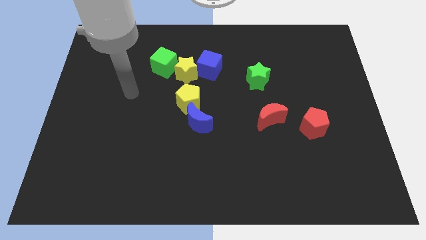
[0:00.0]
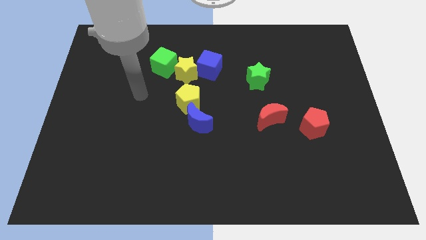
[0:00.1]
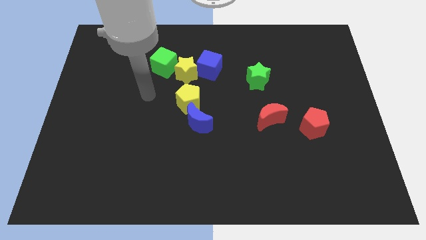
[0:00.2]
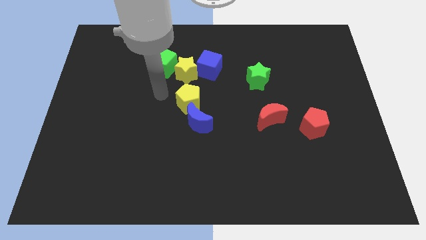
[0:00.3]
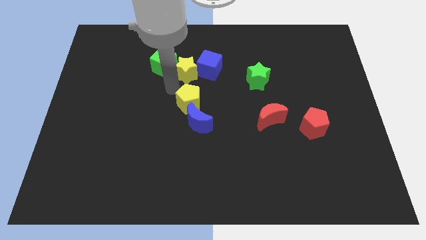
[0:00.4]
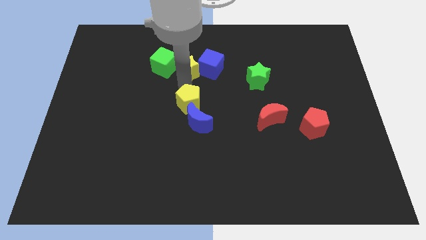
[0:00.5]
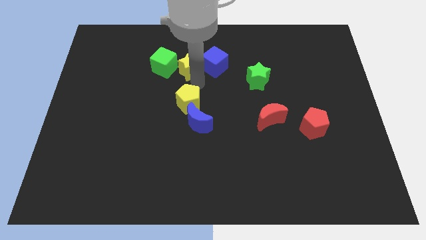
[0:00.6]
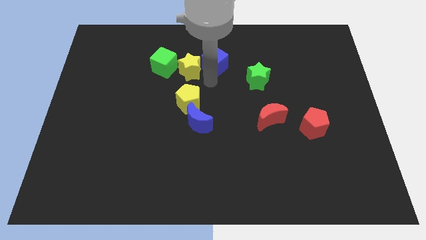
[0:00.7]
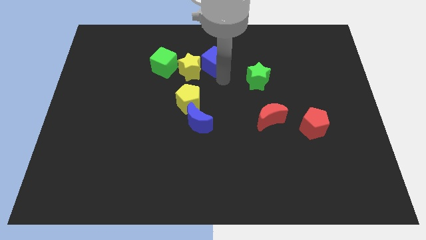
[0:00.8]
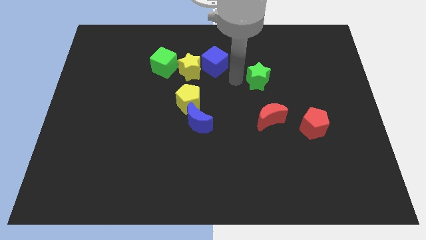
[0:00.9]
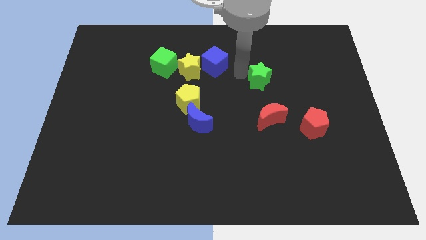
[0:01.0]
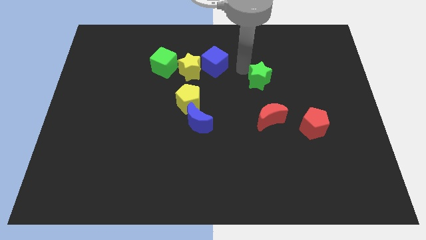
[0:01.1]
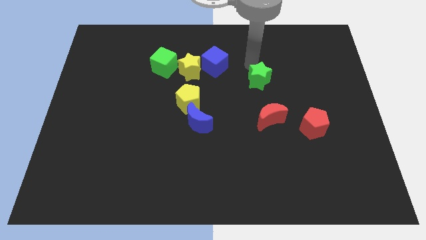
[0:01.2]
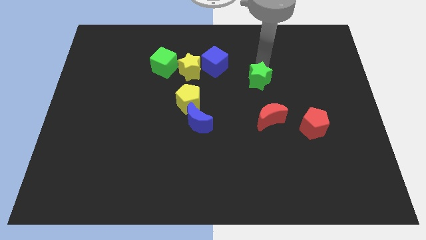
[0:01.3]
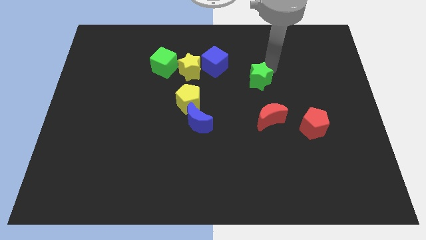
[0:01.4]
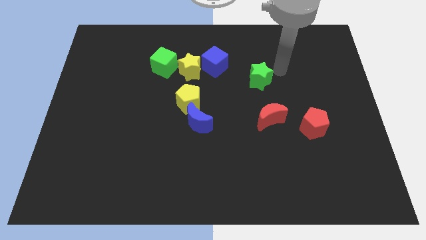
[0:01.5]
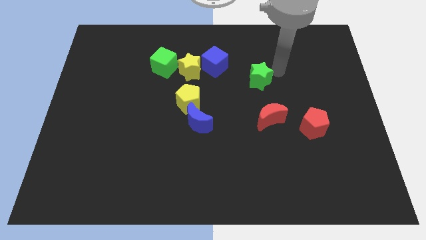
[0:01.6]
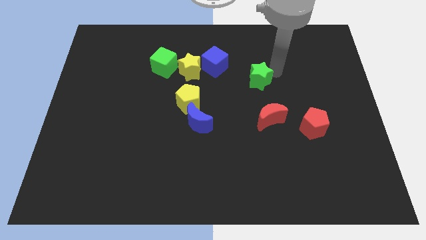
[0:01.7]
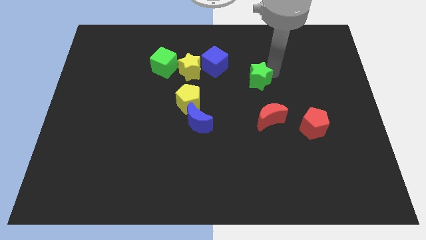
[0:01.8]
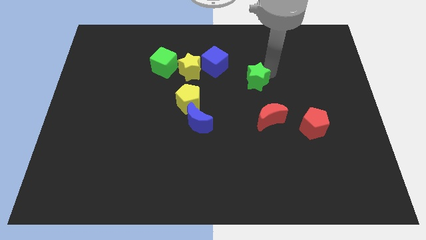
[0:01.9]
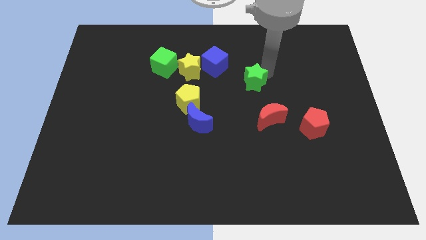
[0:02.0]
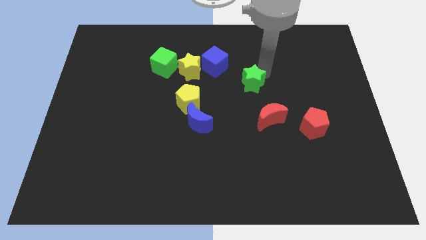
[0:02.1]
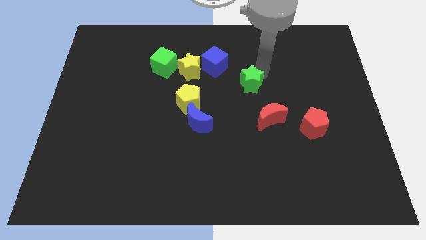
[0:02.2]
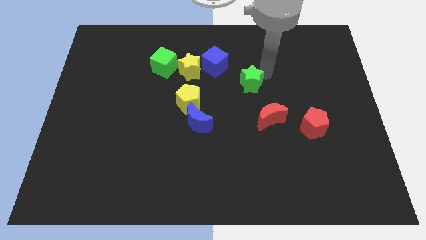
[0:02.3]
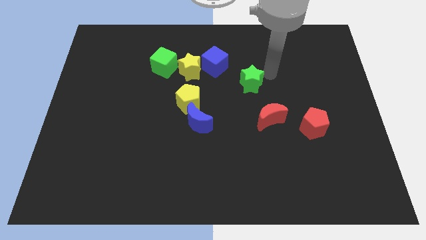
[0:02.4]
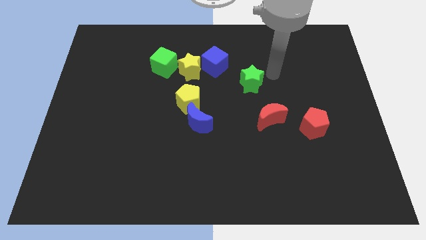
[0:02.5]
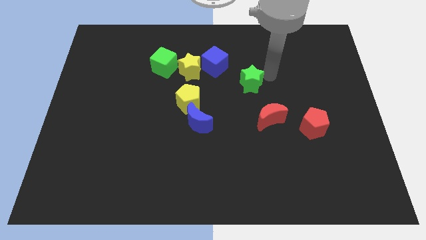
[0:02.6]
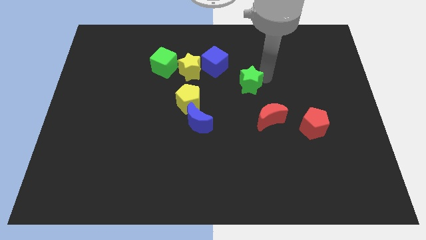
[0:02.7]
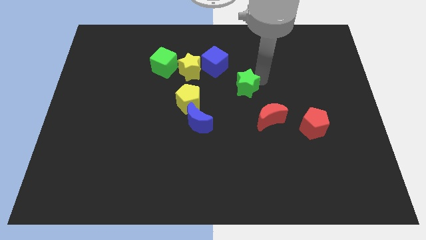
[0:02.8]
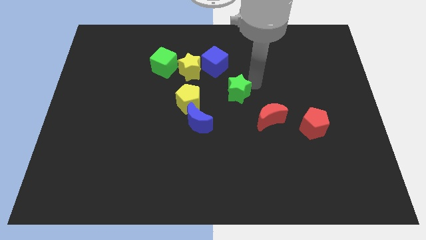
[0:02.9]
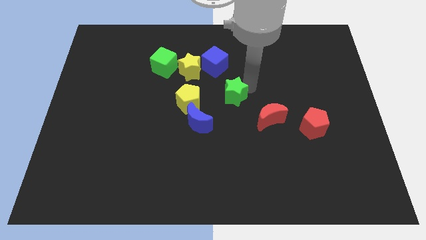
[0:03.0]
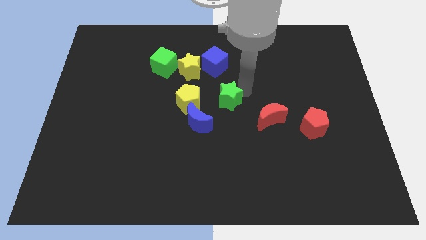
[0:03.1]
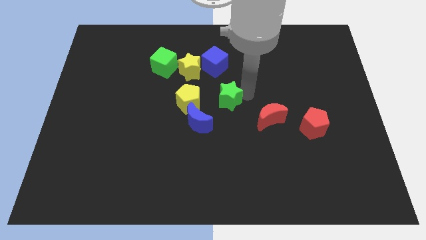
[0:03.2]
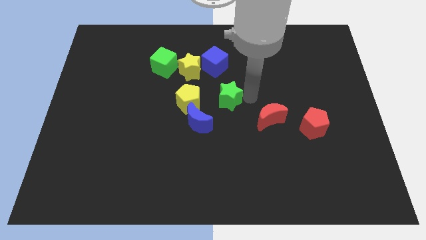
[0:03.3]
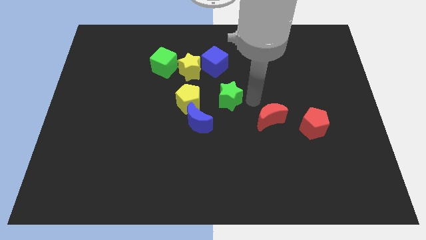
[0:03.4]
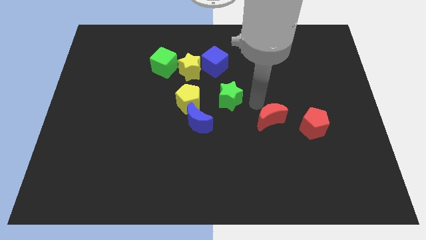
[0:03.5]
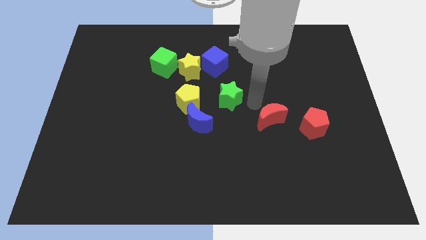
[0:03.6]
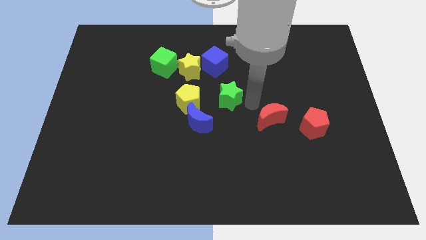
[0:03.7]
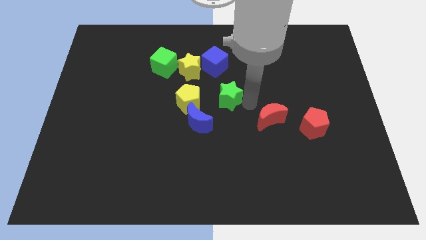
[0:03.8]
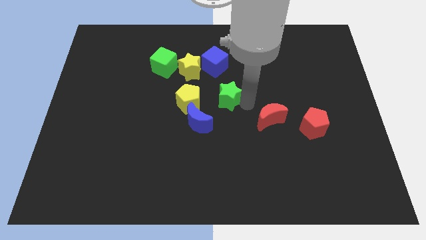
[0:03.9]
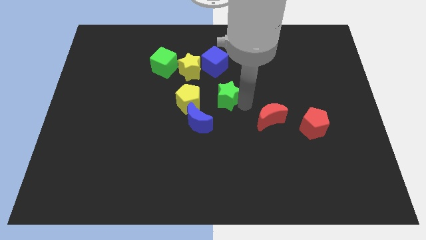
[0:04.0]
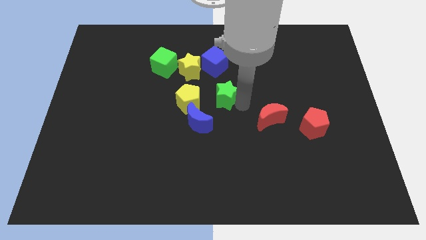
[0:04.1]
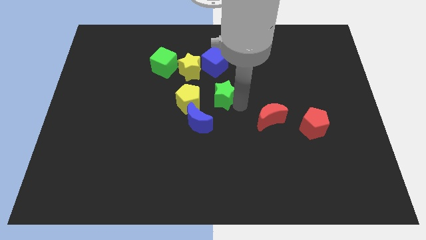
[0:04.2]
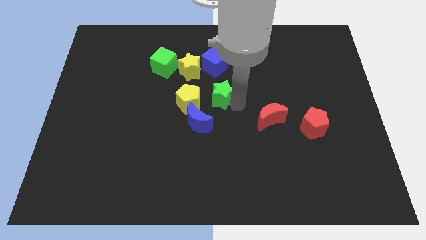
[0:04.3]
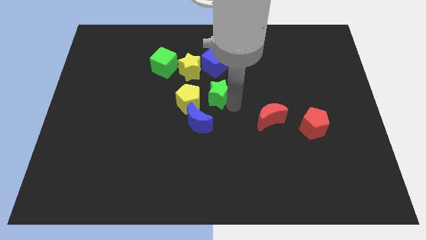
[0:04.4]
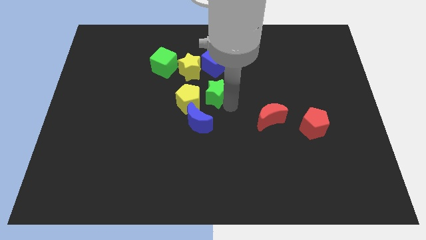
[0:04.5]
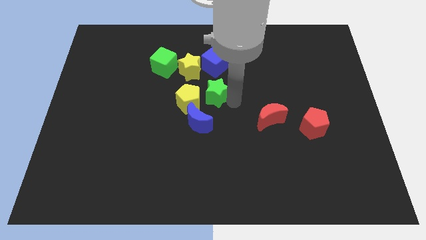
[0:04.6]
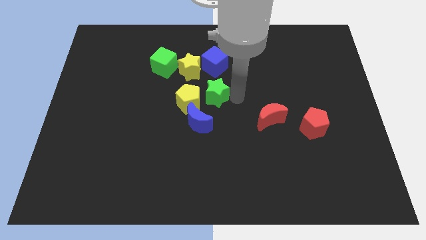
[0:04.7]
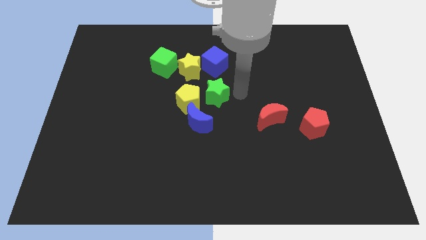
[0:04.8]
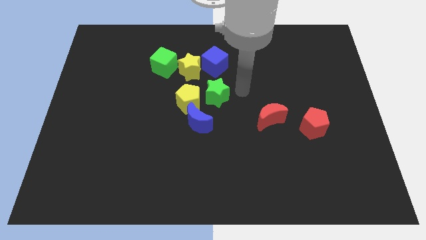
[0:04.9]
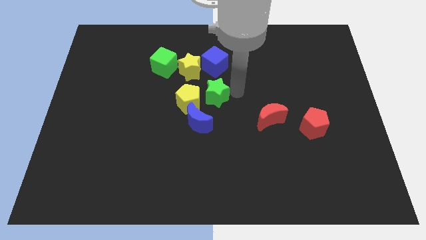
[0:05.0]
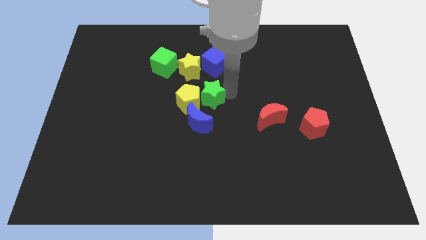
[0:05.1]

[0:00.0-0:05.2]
move the green star next to the yellow pentagon
